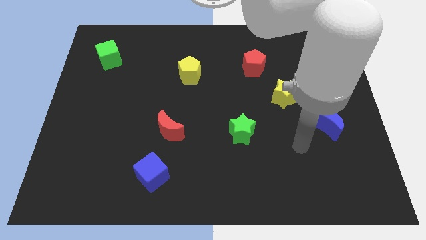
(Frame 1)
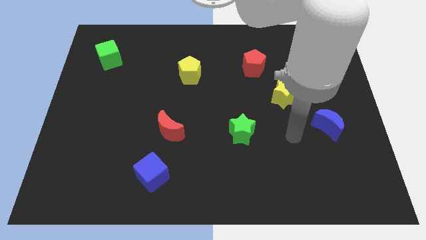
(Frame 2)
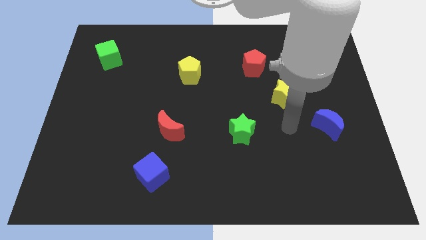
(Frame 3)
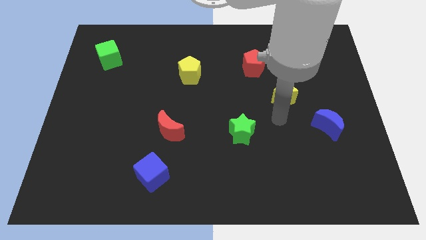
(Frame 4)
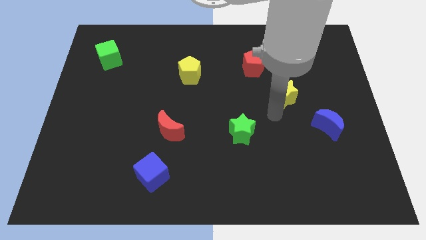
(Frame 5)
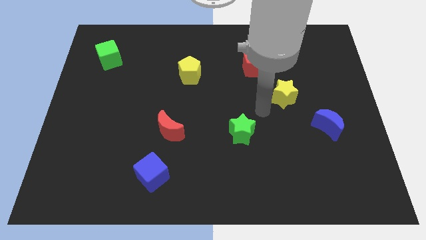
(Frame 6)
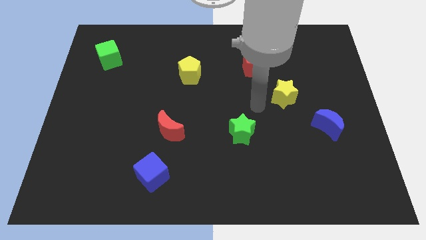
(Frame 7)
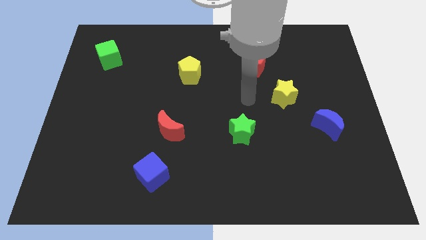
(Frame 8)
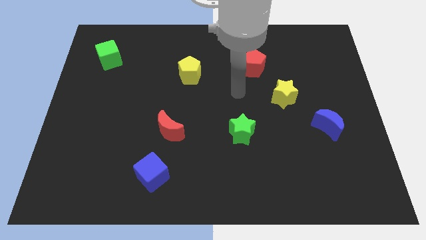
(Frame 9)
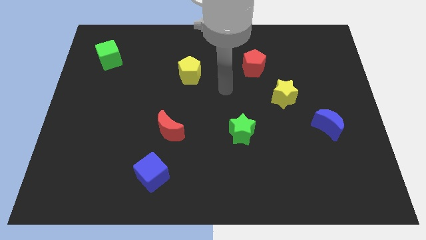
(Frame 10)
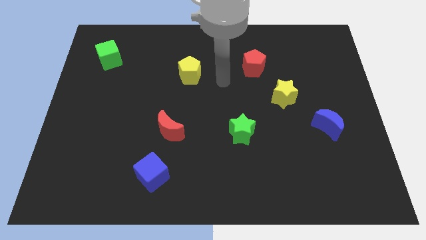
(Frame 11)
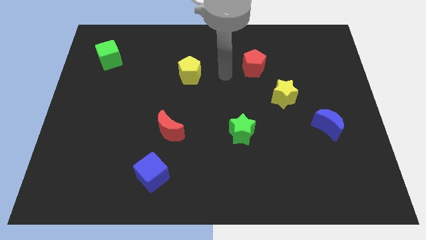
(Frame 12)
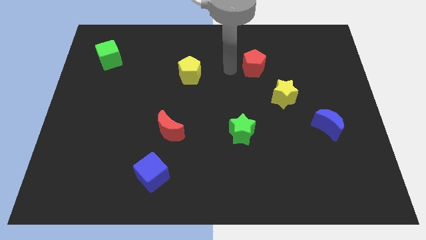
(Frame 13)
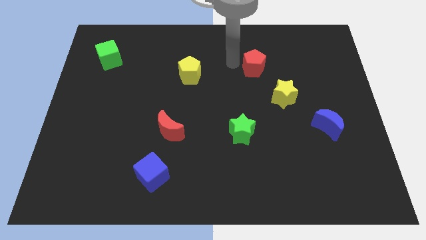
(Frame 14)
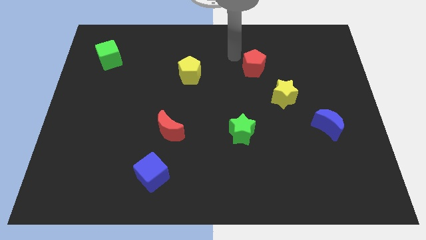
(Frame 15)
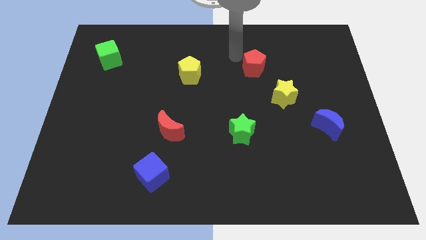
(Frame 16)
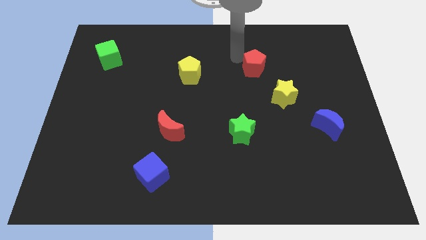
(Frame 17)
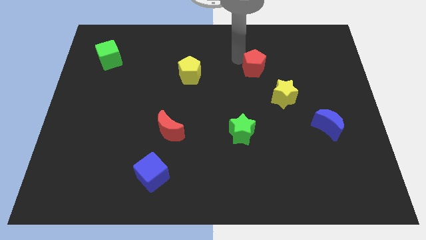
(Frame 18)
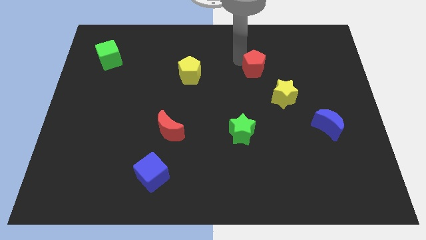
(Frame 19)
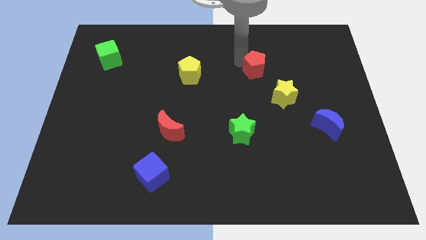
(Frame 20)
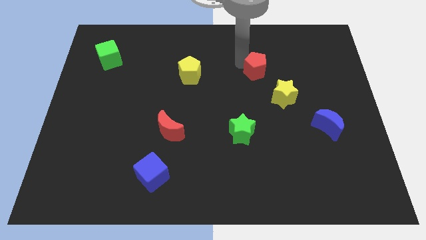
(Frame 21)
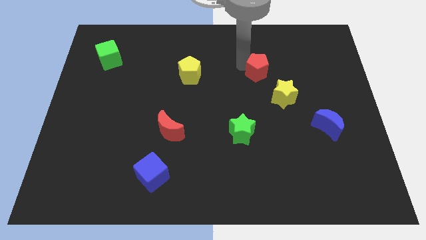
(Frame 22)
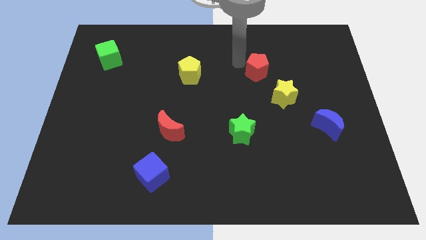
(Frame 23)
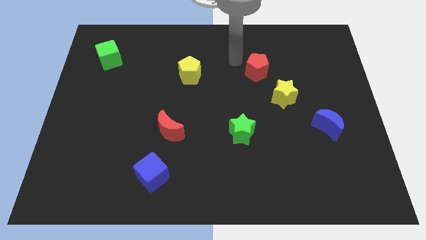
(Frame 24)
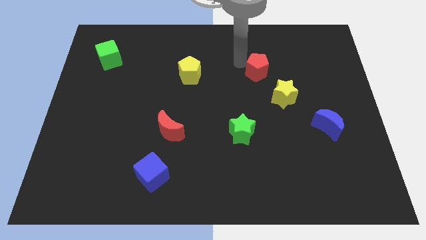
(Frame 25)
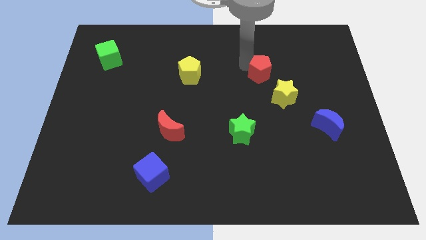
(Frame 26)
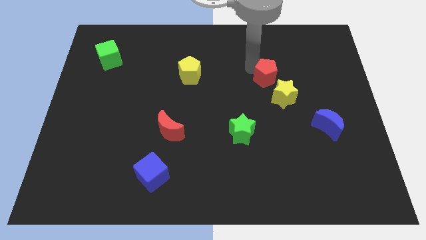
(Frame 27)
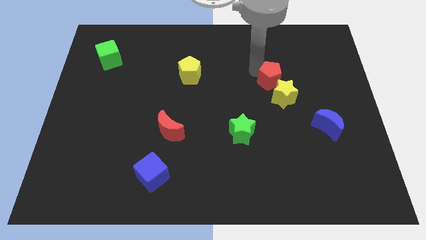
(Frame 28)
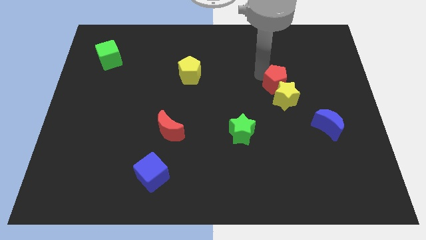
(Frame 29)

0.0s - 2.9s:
slide the red pentagon downwards and to the right diagonally a little

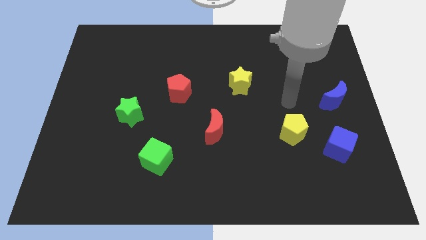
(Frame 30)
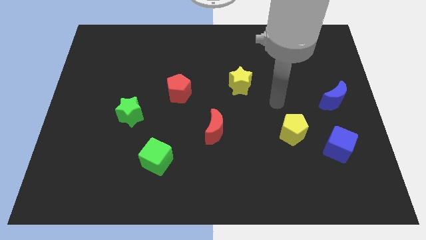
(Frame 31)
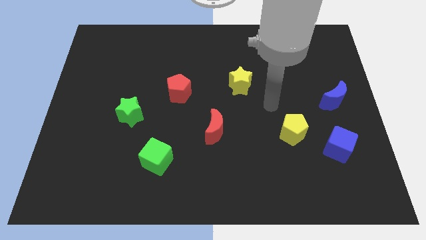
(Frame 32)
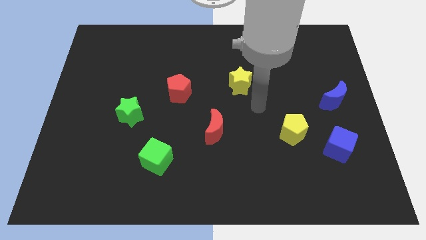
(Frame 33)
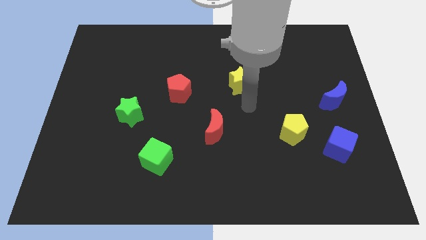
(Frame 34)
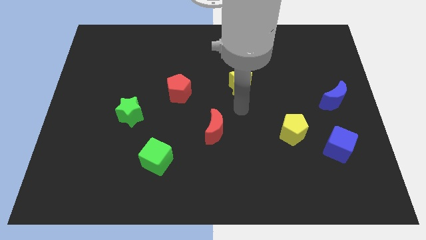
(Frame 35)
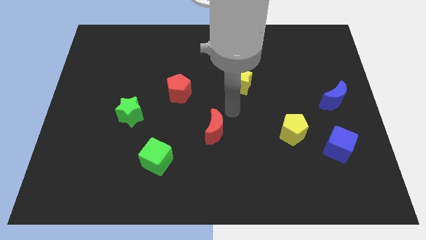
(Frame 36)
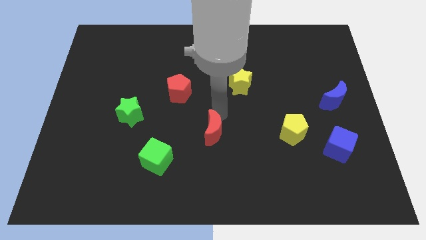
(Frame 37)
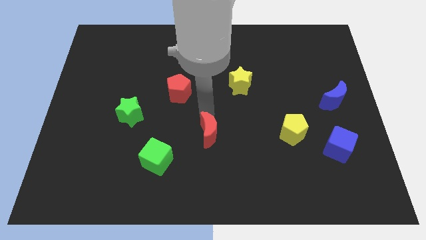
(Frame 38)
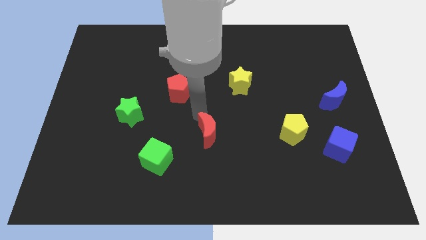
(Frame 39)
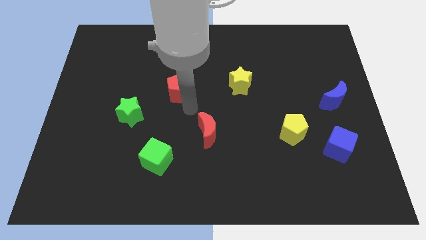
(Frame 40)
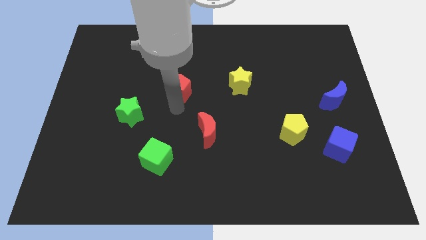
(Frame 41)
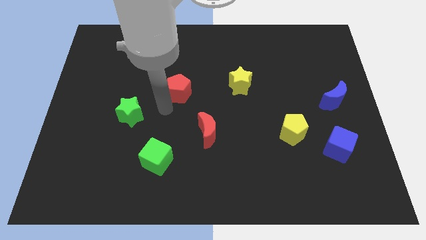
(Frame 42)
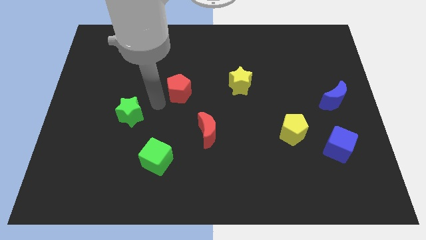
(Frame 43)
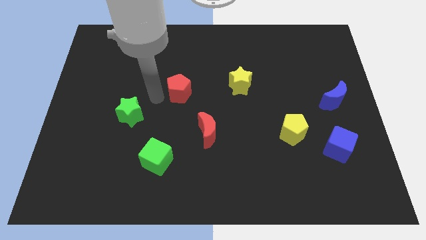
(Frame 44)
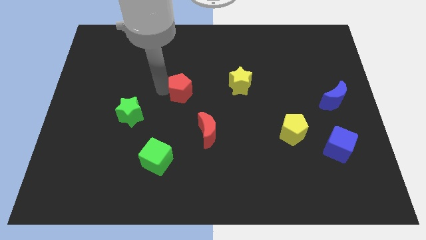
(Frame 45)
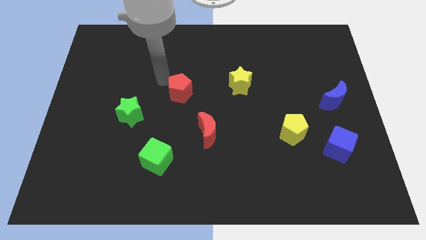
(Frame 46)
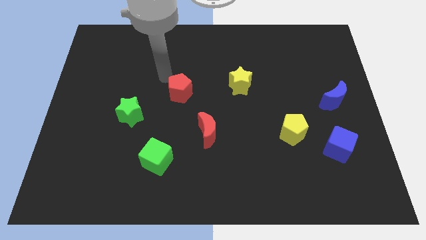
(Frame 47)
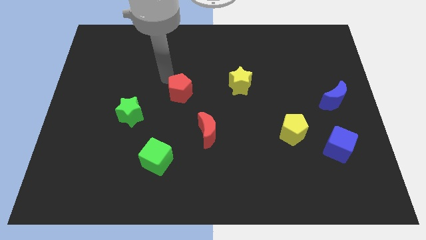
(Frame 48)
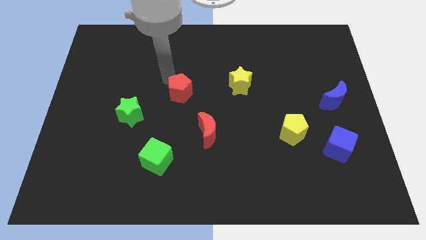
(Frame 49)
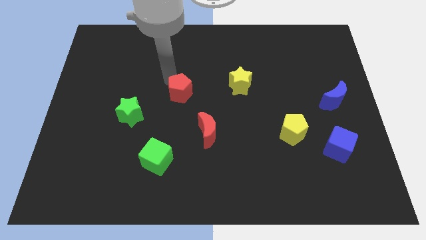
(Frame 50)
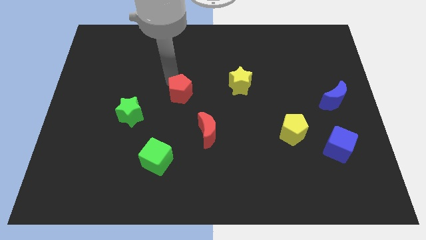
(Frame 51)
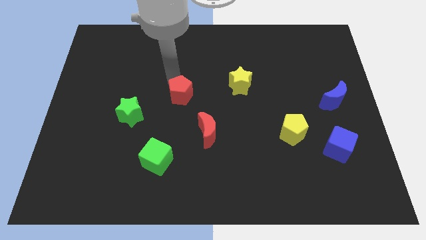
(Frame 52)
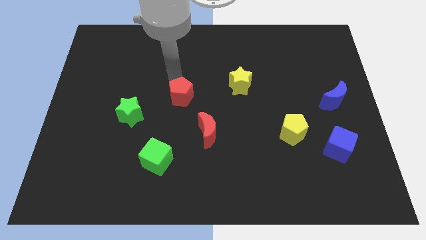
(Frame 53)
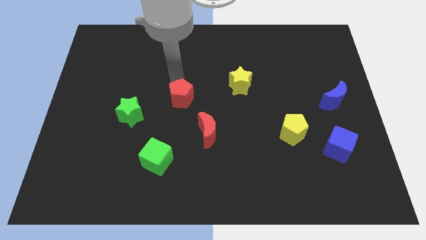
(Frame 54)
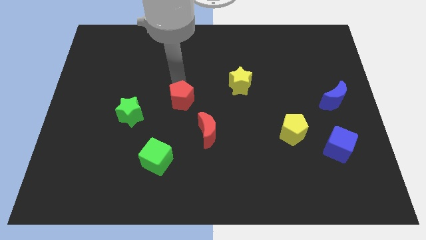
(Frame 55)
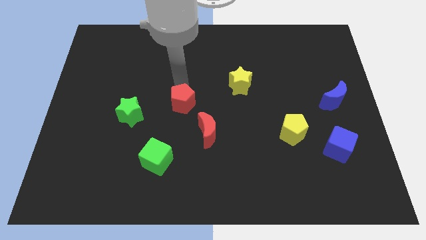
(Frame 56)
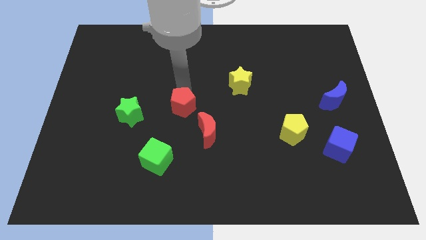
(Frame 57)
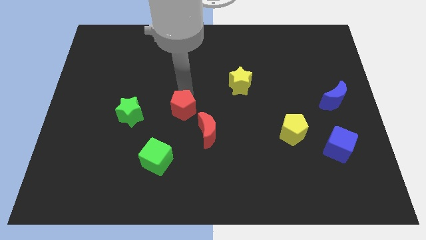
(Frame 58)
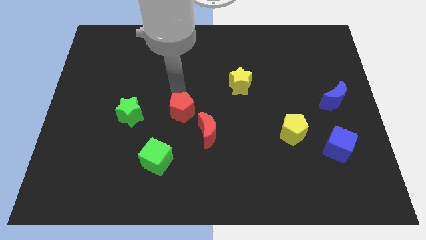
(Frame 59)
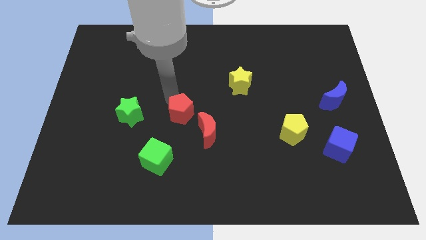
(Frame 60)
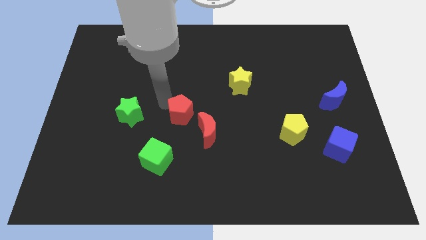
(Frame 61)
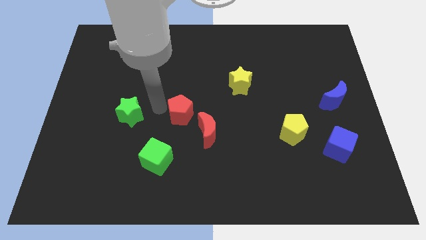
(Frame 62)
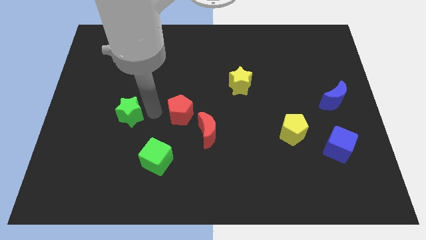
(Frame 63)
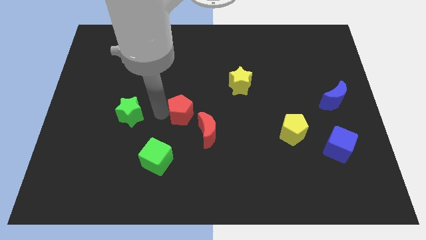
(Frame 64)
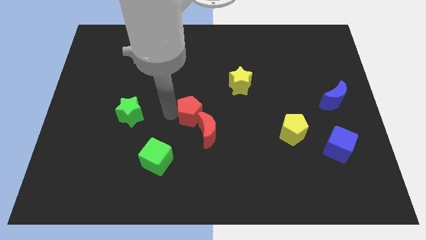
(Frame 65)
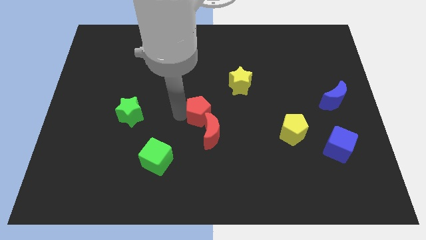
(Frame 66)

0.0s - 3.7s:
push the red pentagon a bit down and right diagonally

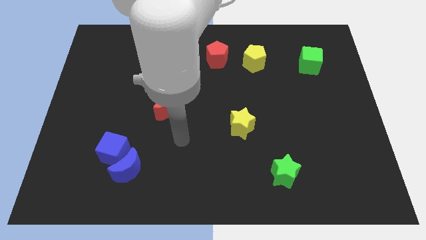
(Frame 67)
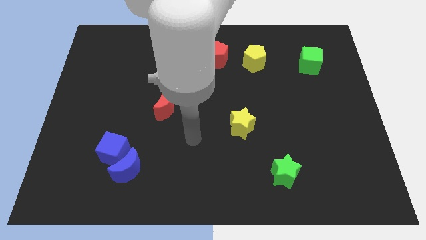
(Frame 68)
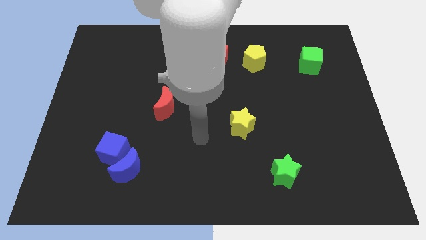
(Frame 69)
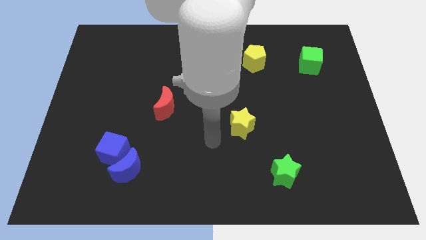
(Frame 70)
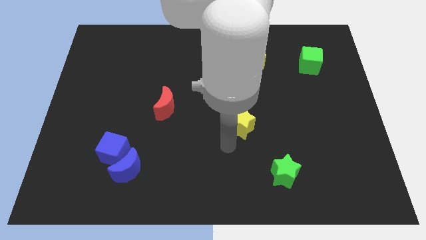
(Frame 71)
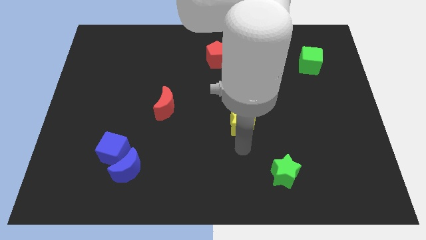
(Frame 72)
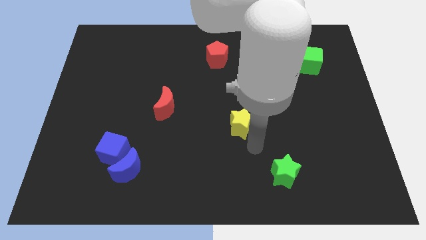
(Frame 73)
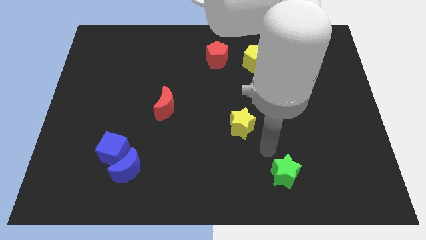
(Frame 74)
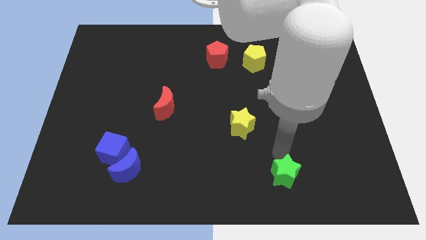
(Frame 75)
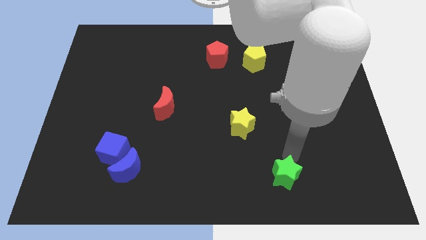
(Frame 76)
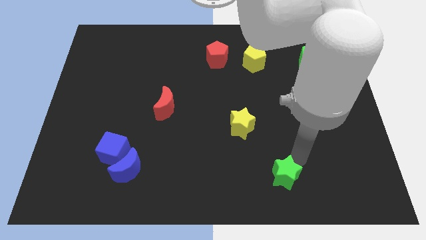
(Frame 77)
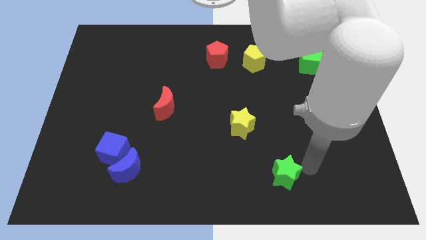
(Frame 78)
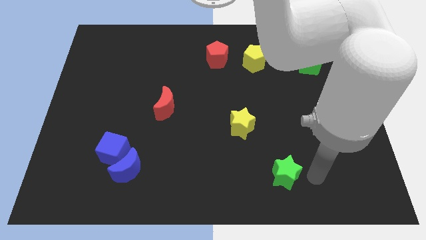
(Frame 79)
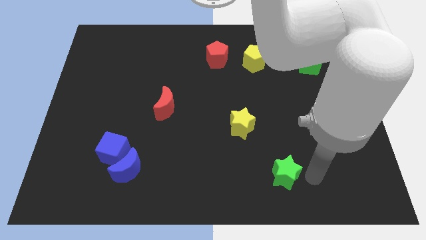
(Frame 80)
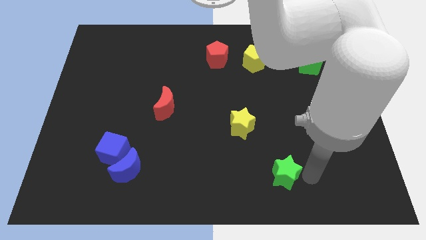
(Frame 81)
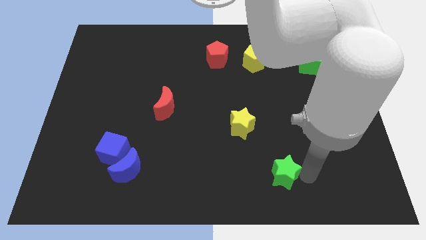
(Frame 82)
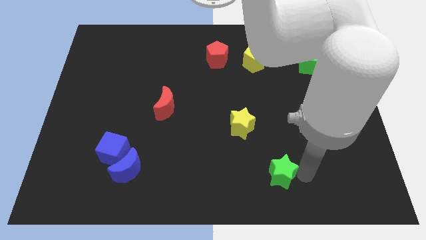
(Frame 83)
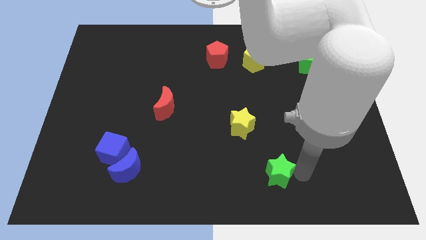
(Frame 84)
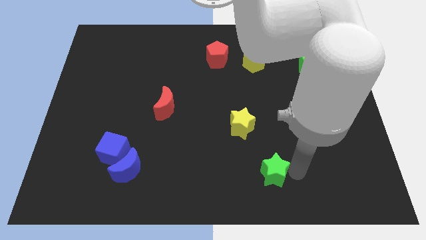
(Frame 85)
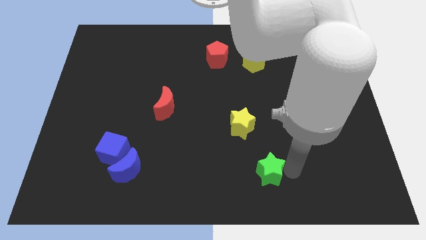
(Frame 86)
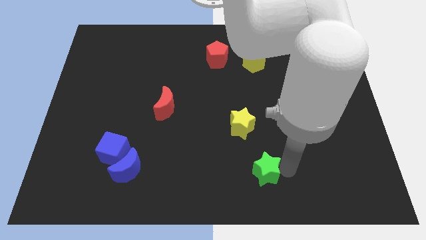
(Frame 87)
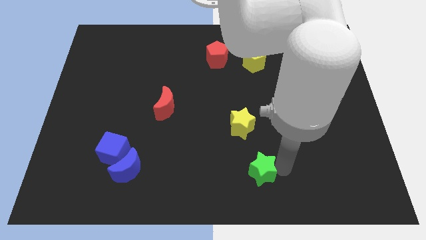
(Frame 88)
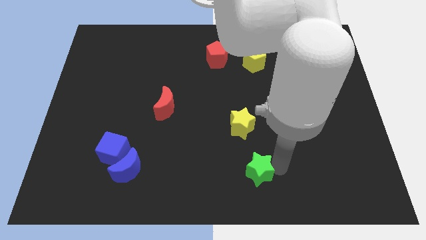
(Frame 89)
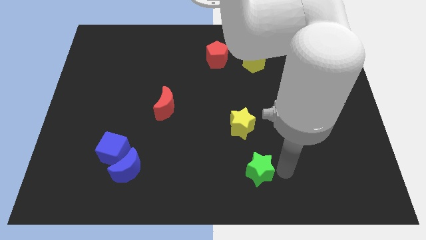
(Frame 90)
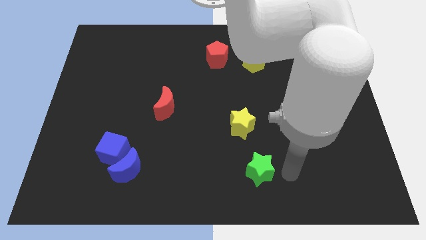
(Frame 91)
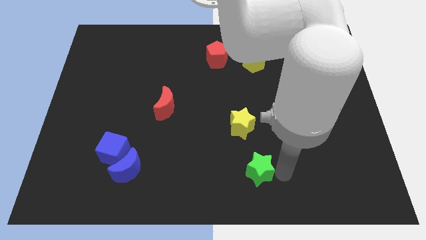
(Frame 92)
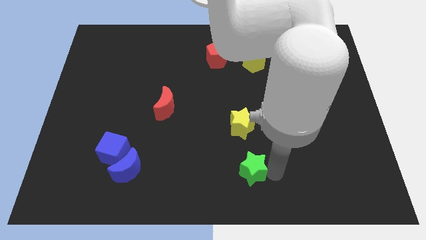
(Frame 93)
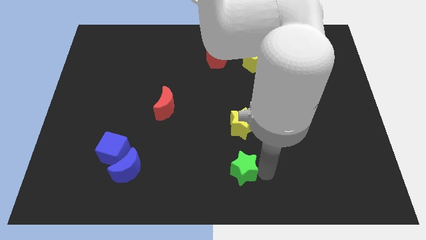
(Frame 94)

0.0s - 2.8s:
slightly push the green star left
